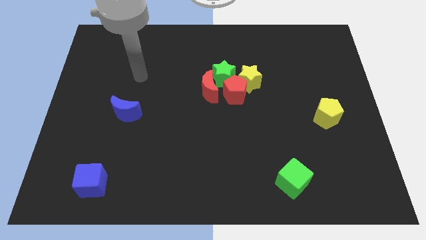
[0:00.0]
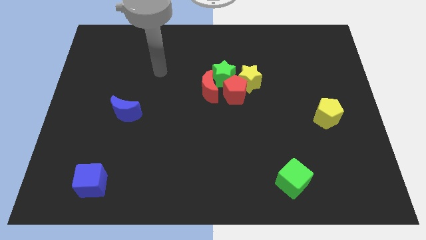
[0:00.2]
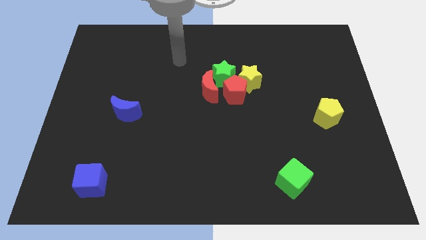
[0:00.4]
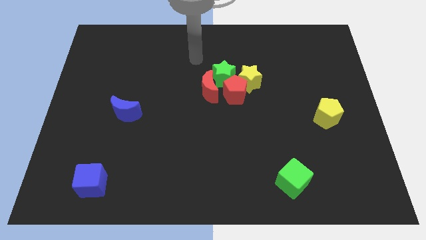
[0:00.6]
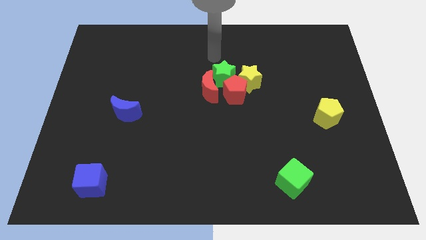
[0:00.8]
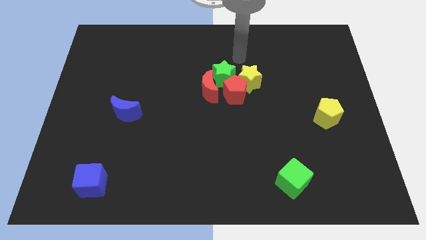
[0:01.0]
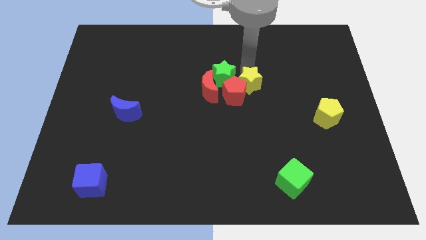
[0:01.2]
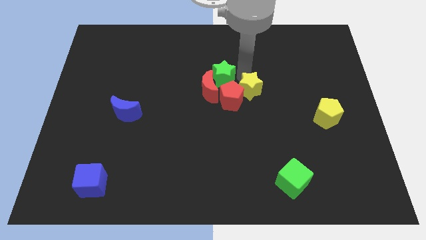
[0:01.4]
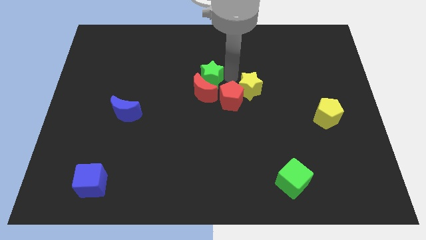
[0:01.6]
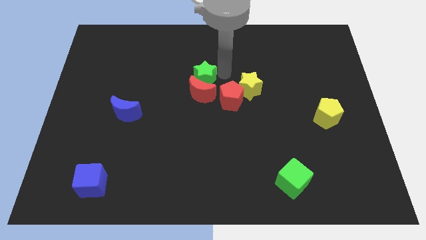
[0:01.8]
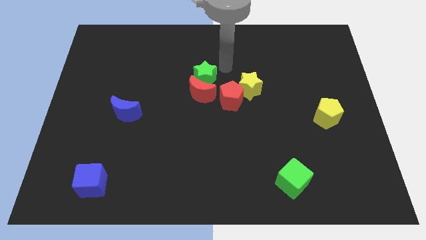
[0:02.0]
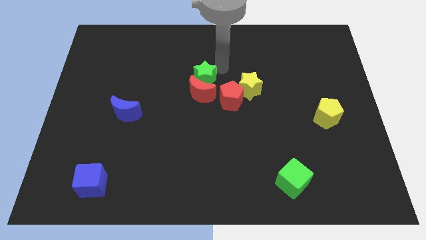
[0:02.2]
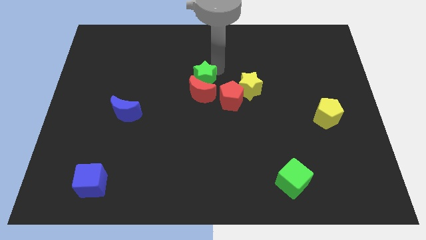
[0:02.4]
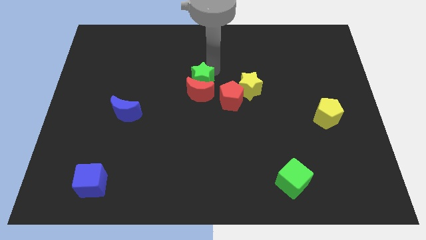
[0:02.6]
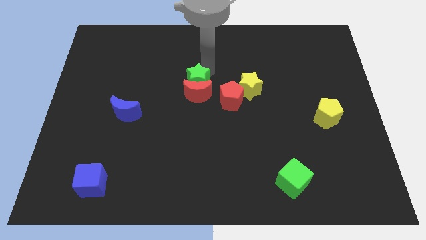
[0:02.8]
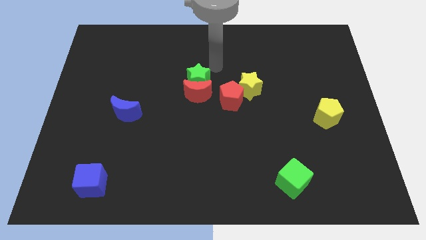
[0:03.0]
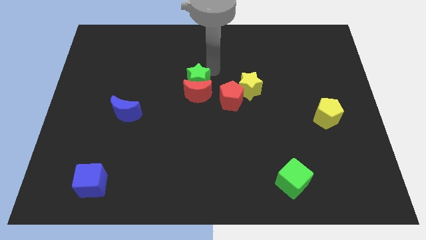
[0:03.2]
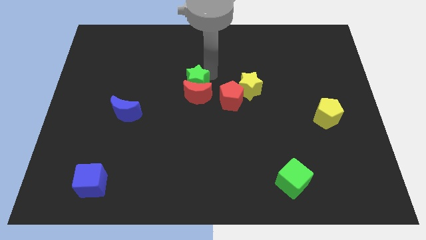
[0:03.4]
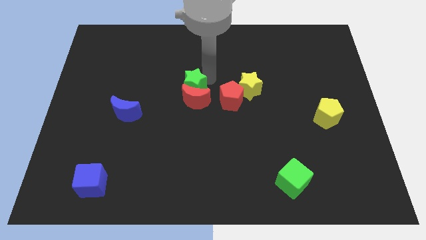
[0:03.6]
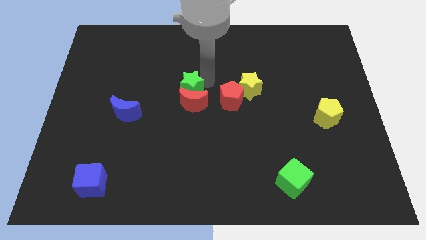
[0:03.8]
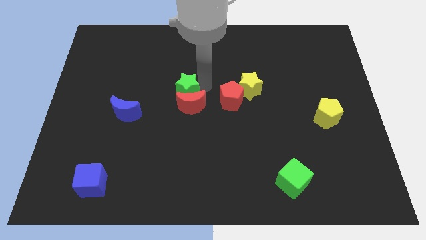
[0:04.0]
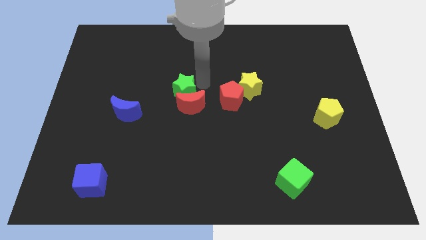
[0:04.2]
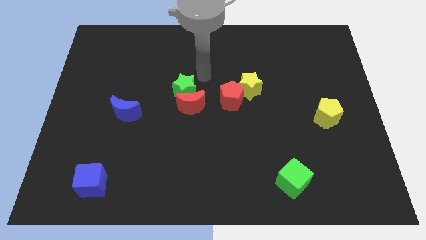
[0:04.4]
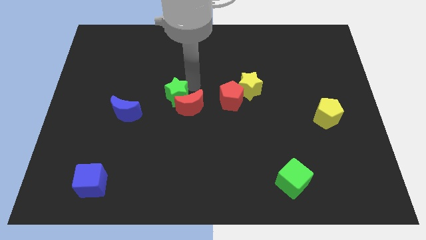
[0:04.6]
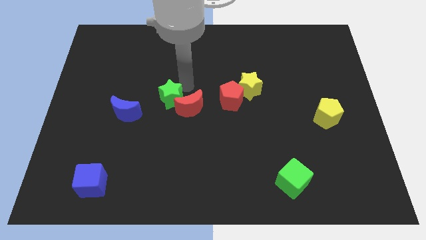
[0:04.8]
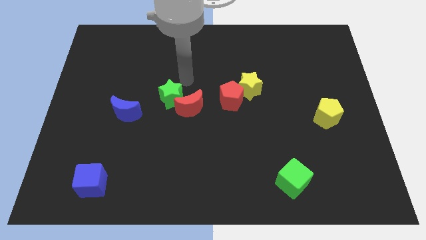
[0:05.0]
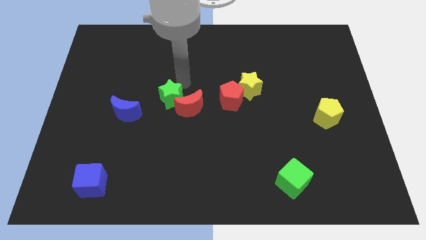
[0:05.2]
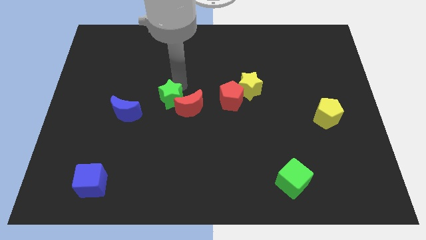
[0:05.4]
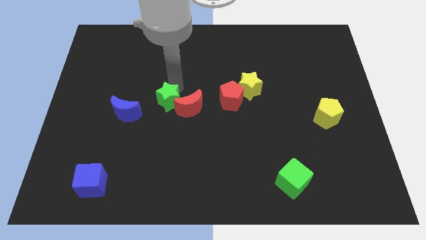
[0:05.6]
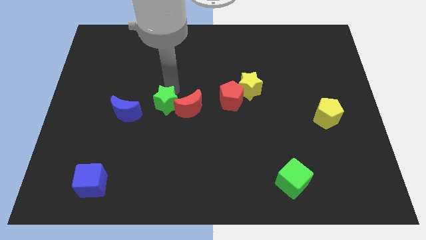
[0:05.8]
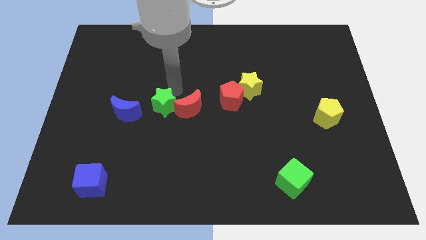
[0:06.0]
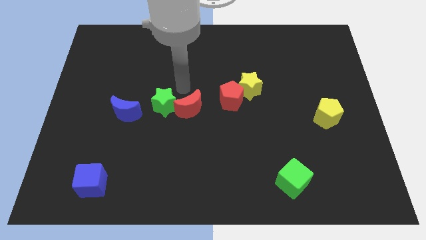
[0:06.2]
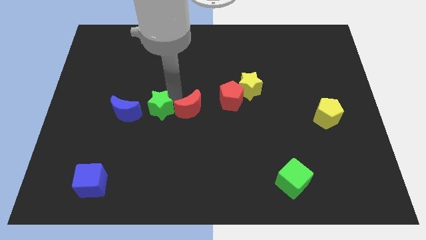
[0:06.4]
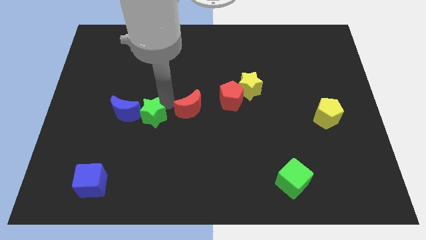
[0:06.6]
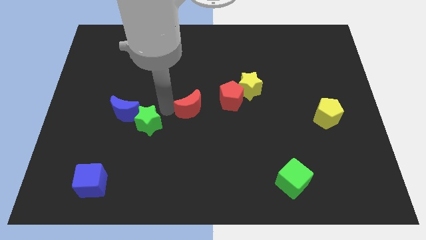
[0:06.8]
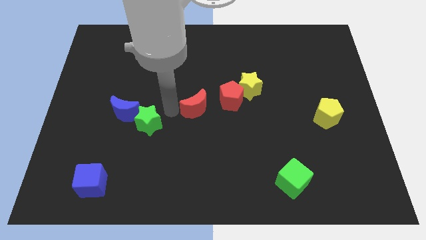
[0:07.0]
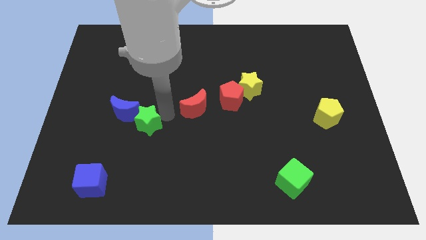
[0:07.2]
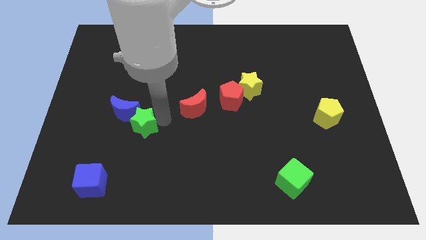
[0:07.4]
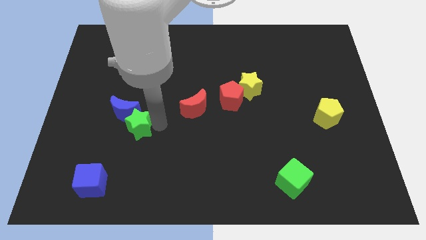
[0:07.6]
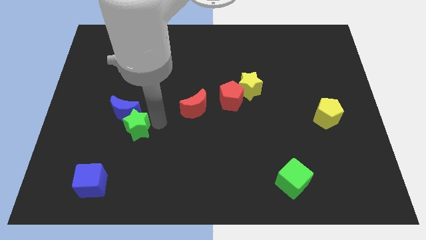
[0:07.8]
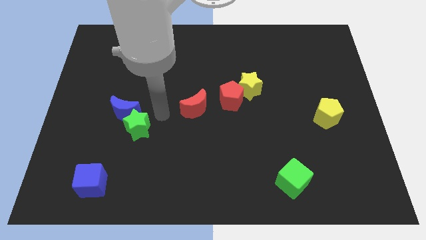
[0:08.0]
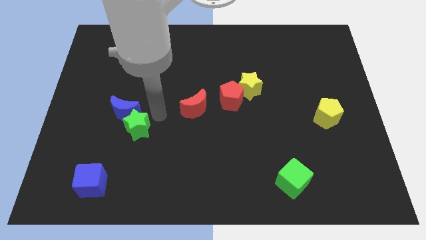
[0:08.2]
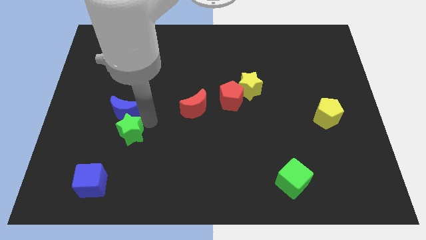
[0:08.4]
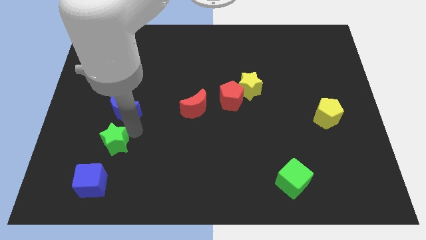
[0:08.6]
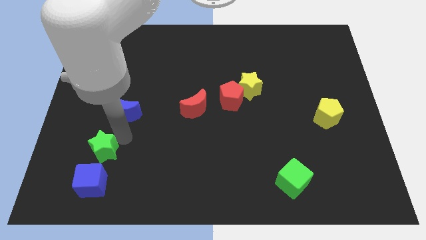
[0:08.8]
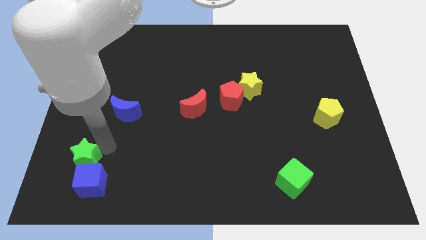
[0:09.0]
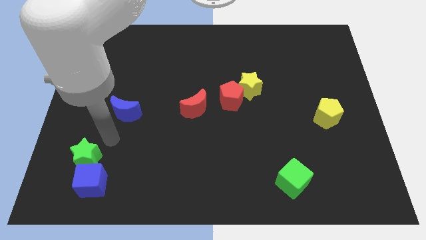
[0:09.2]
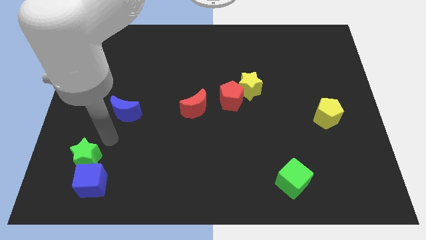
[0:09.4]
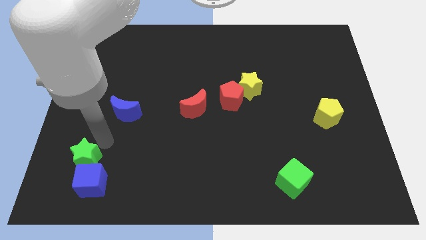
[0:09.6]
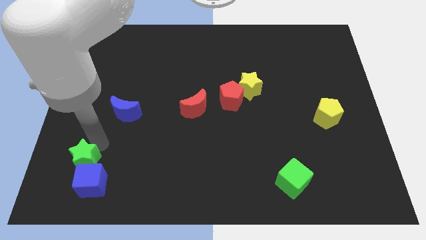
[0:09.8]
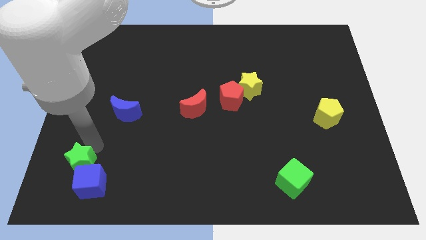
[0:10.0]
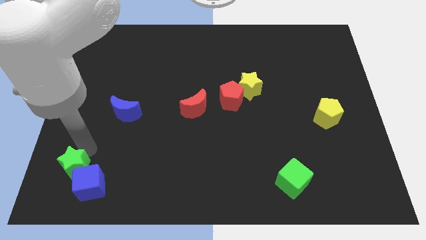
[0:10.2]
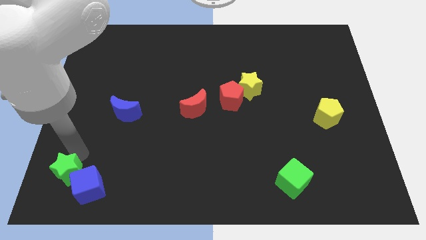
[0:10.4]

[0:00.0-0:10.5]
put the green star to the bottom left corner

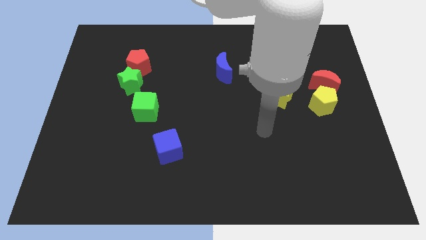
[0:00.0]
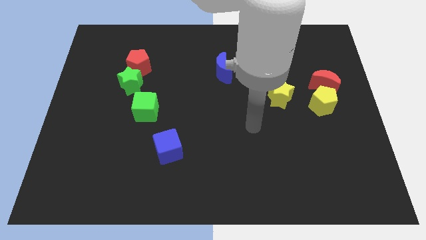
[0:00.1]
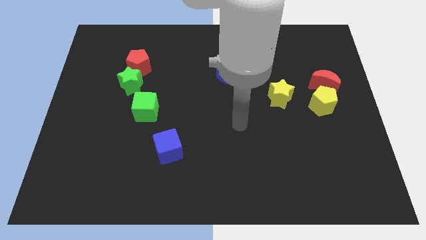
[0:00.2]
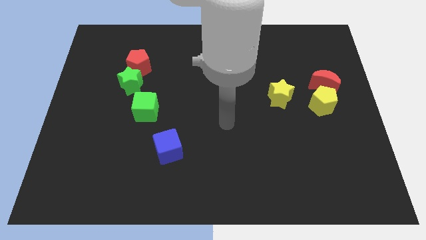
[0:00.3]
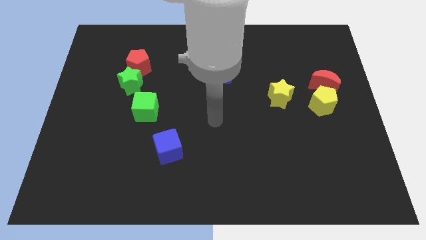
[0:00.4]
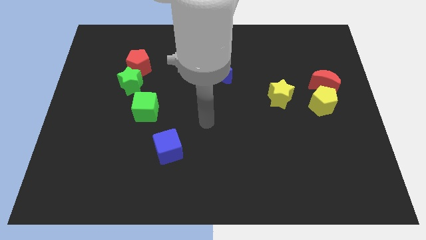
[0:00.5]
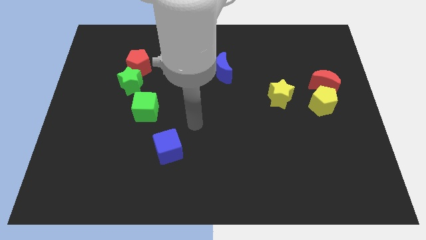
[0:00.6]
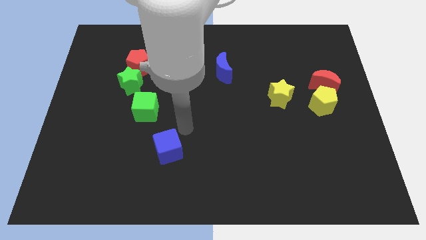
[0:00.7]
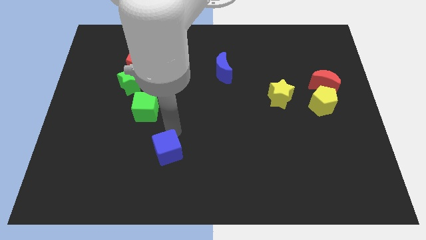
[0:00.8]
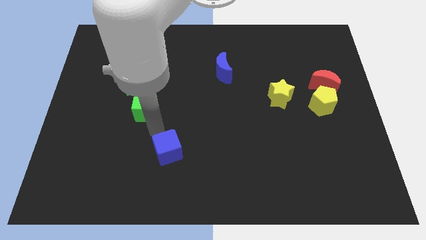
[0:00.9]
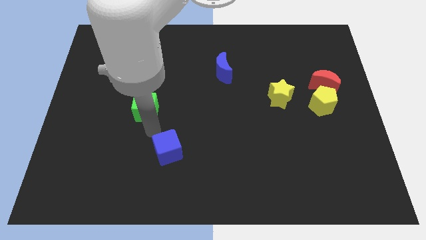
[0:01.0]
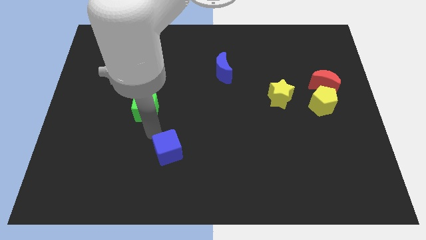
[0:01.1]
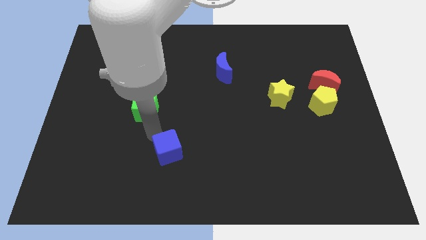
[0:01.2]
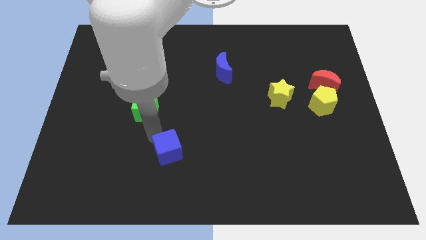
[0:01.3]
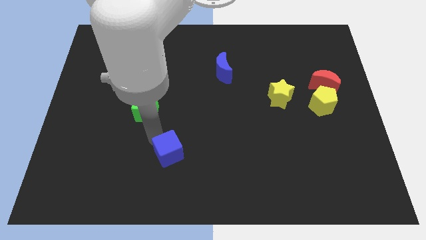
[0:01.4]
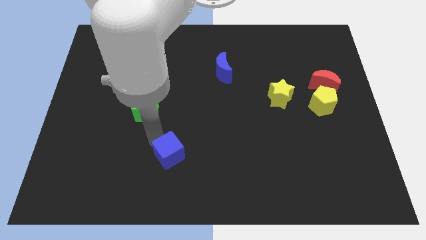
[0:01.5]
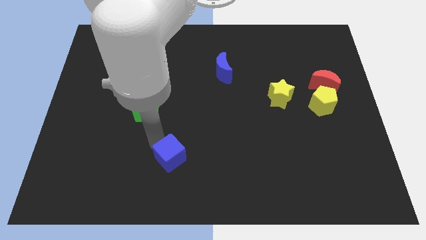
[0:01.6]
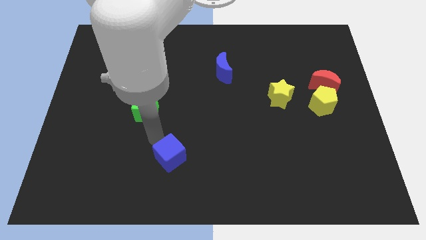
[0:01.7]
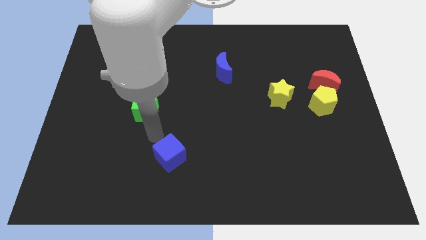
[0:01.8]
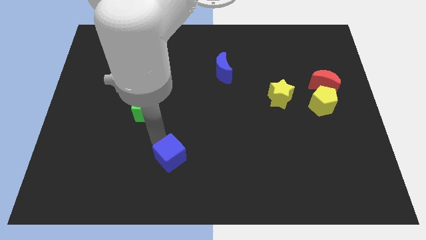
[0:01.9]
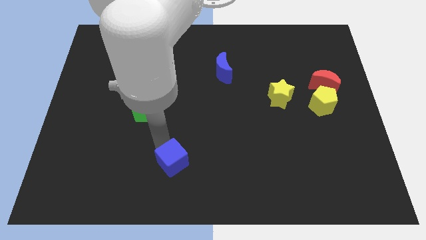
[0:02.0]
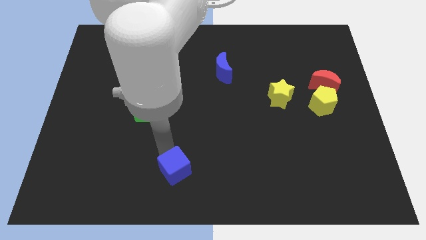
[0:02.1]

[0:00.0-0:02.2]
put the blue cube to the bottom
